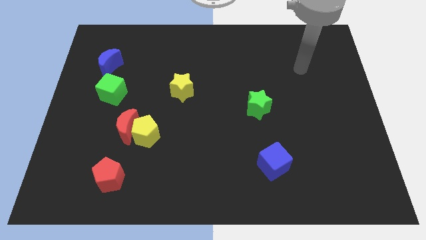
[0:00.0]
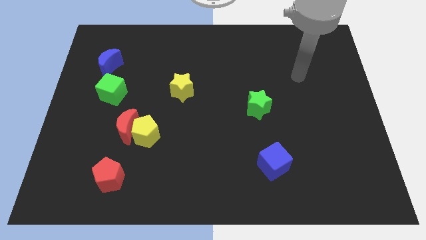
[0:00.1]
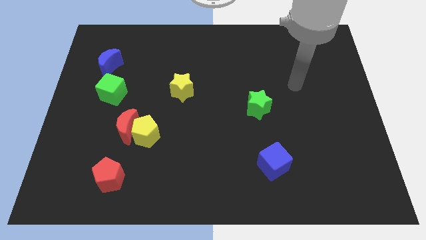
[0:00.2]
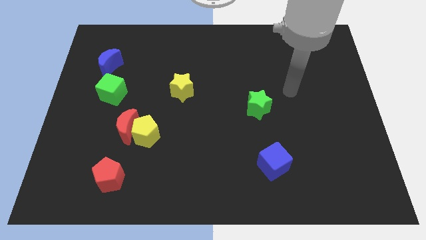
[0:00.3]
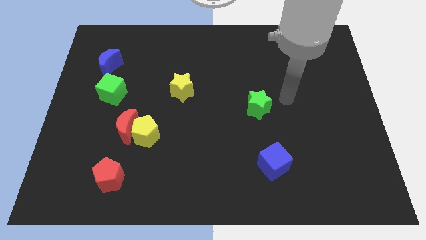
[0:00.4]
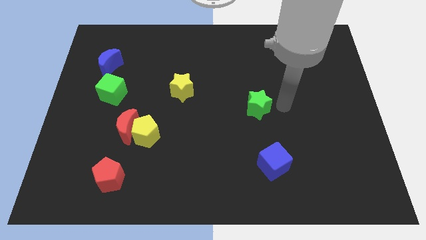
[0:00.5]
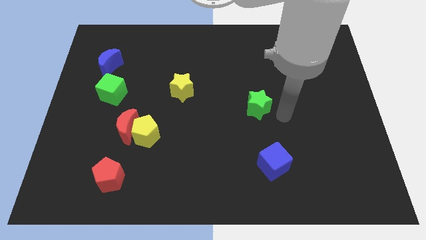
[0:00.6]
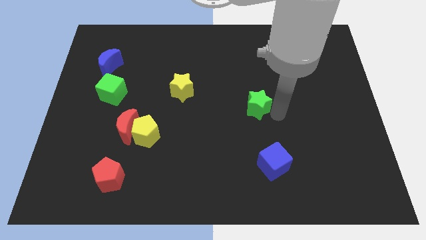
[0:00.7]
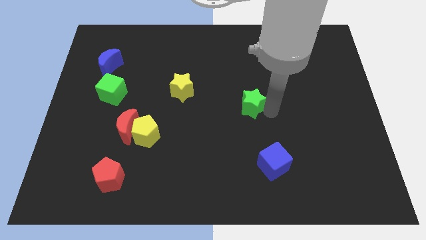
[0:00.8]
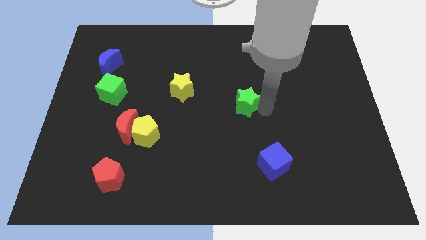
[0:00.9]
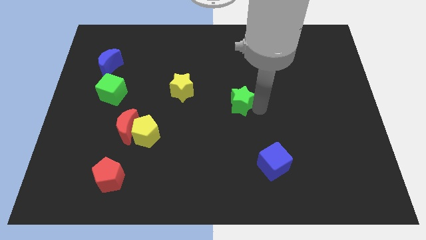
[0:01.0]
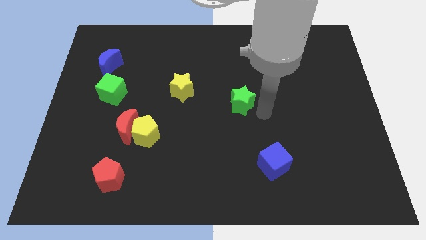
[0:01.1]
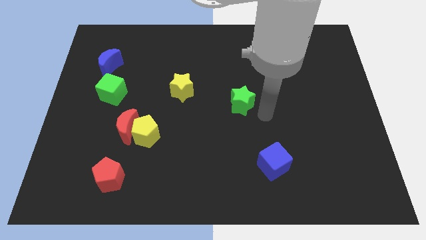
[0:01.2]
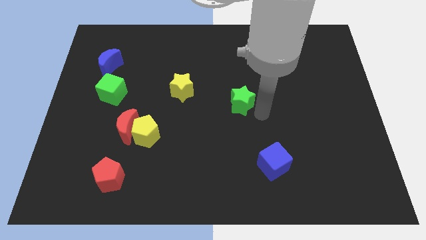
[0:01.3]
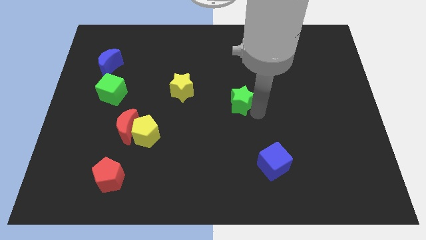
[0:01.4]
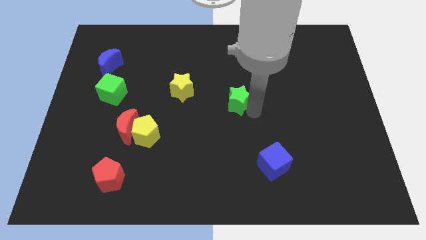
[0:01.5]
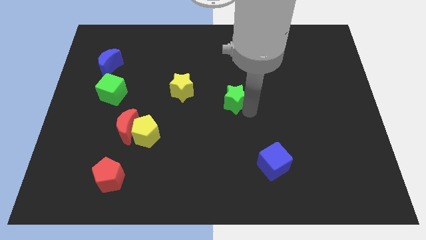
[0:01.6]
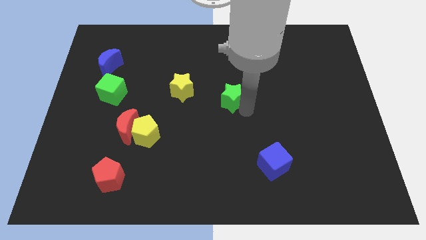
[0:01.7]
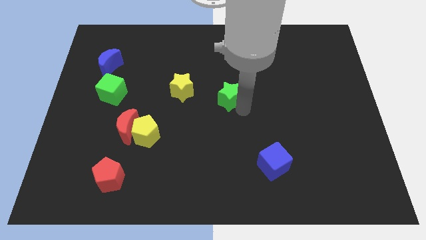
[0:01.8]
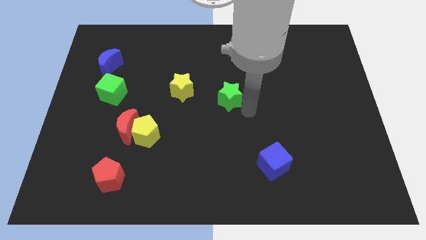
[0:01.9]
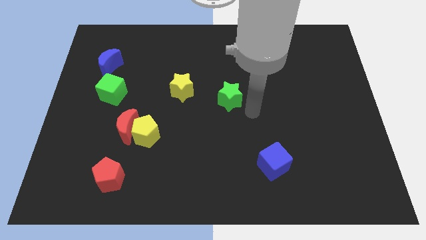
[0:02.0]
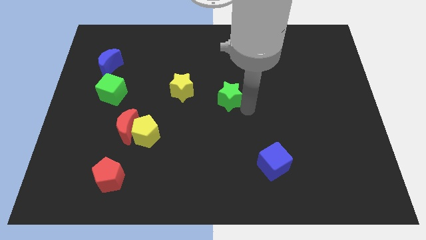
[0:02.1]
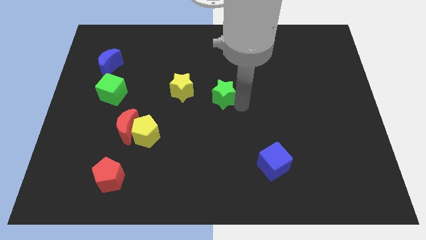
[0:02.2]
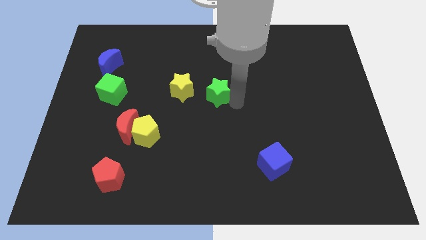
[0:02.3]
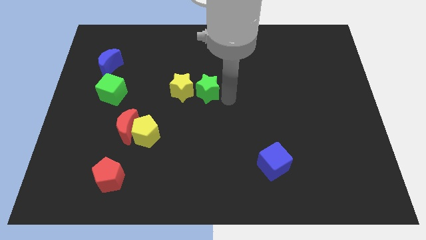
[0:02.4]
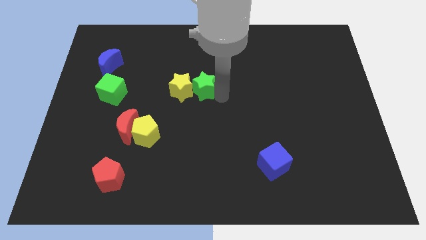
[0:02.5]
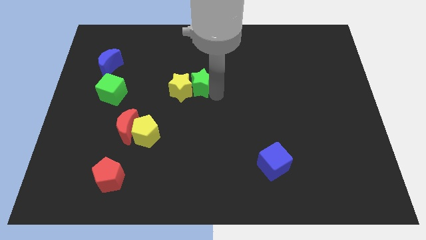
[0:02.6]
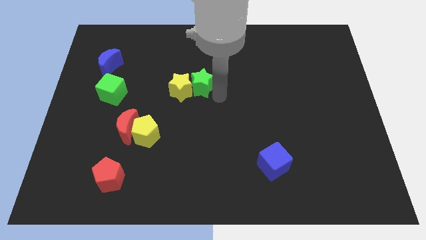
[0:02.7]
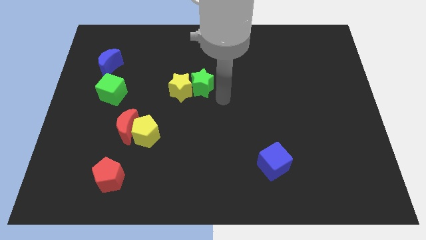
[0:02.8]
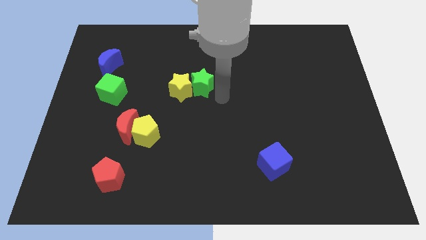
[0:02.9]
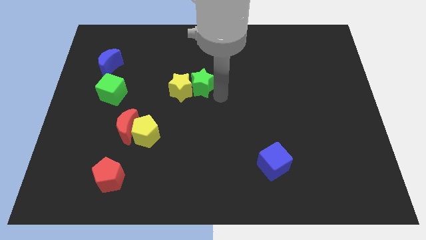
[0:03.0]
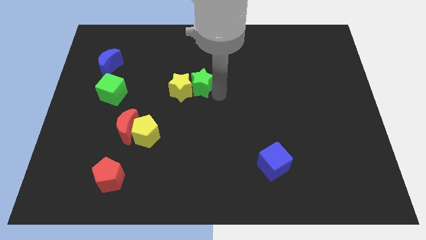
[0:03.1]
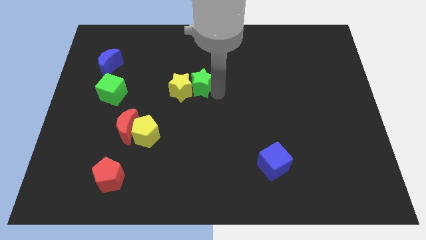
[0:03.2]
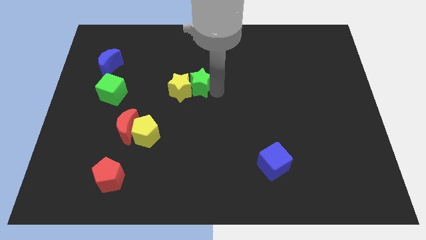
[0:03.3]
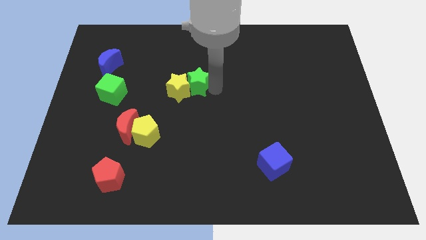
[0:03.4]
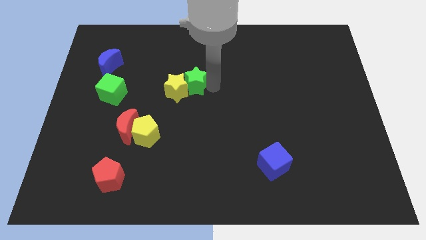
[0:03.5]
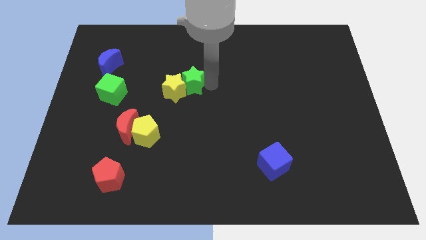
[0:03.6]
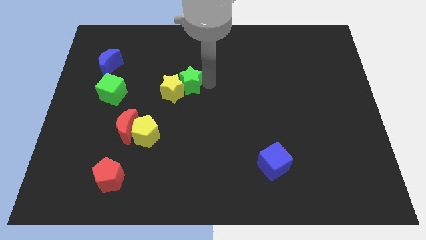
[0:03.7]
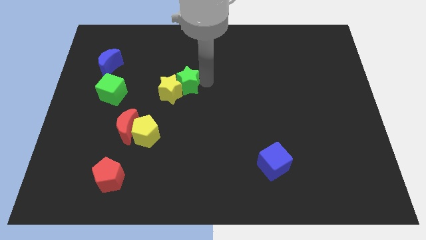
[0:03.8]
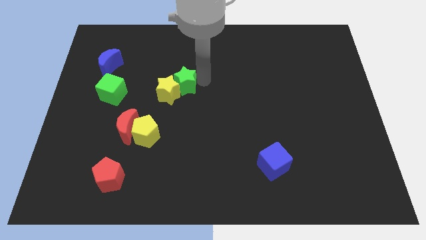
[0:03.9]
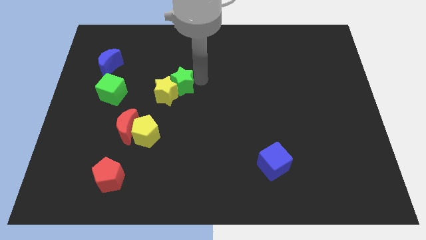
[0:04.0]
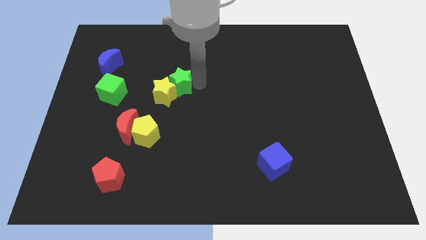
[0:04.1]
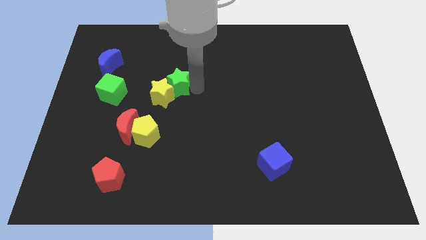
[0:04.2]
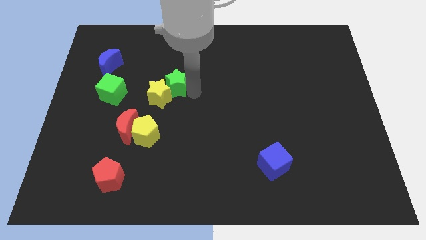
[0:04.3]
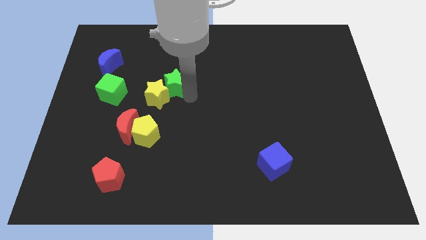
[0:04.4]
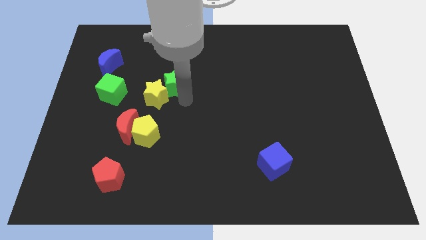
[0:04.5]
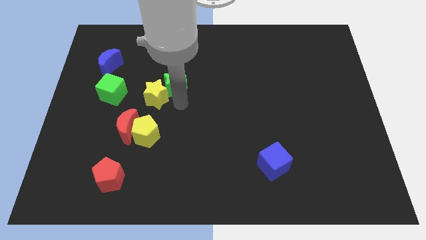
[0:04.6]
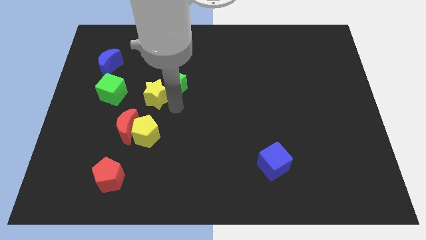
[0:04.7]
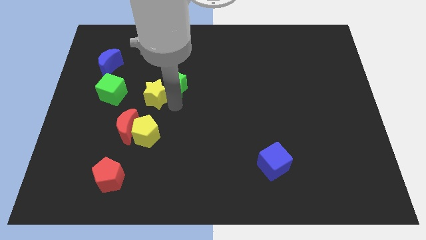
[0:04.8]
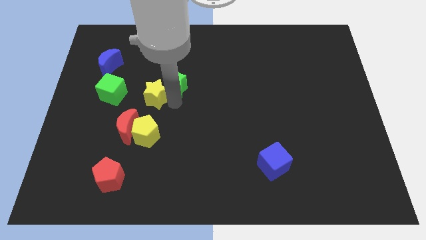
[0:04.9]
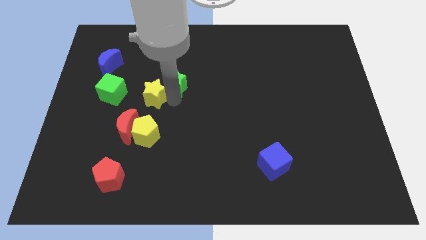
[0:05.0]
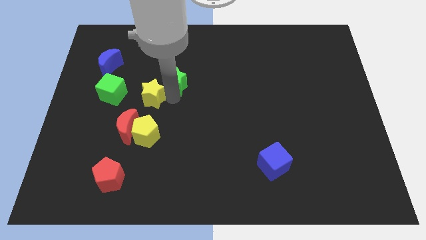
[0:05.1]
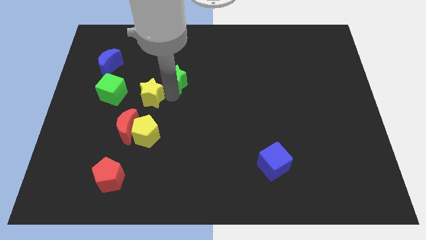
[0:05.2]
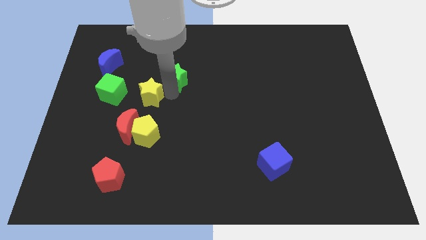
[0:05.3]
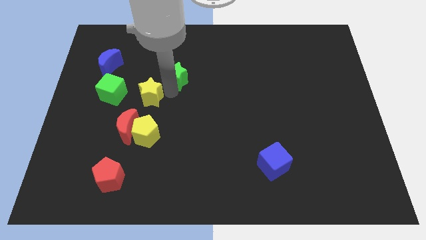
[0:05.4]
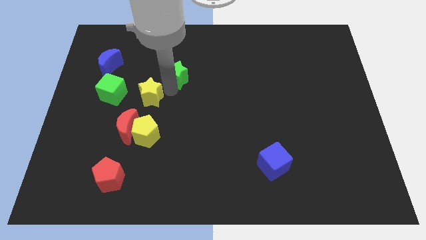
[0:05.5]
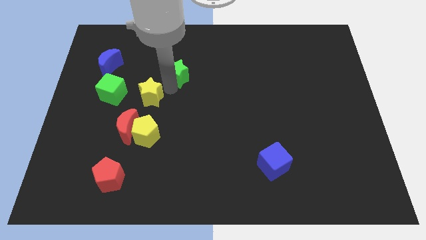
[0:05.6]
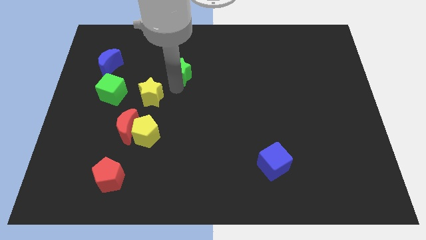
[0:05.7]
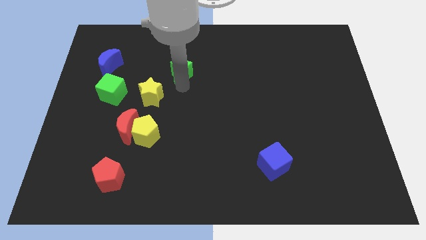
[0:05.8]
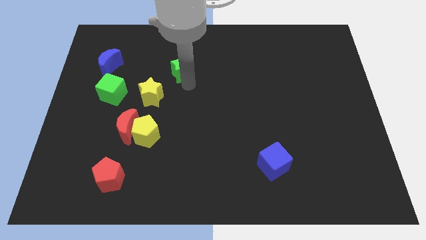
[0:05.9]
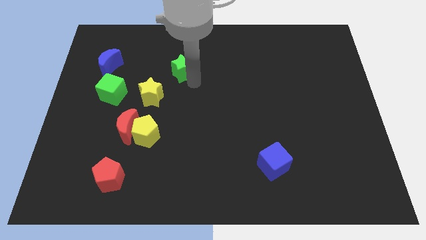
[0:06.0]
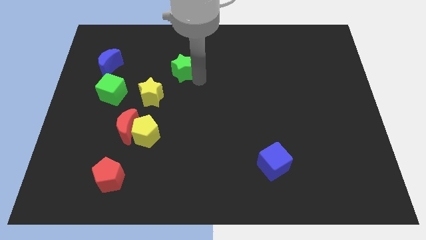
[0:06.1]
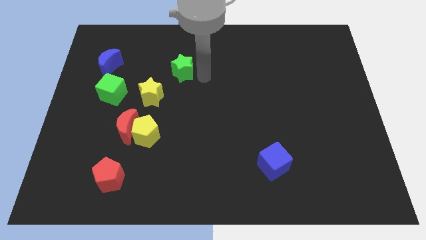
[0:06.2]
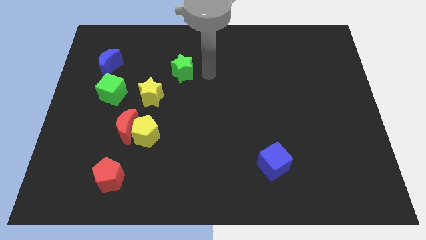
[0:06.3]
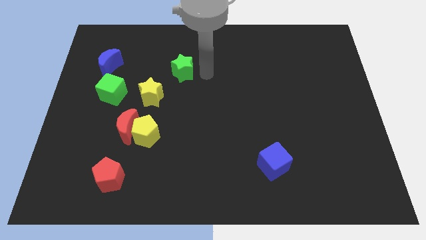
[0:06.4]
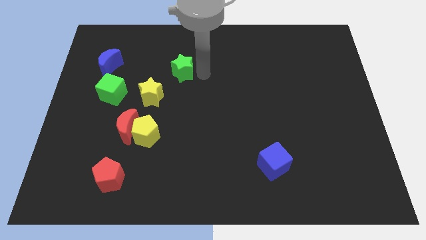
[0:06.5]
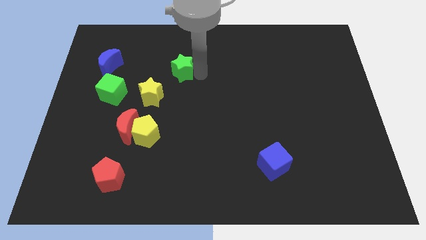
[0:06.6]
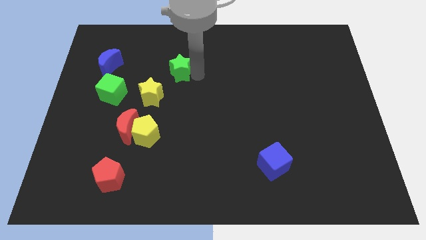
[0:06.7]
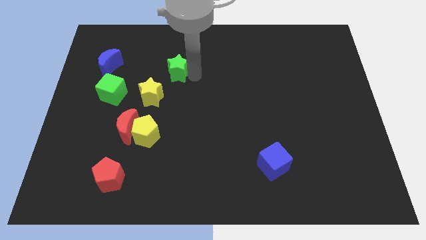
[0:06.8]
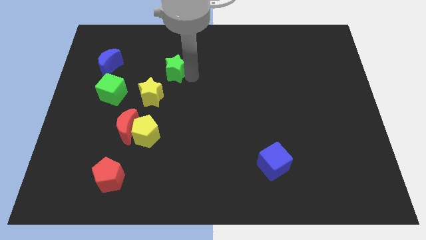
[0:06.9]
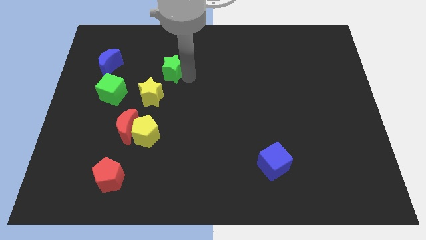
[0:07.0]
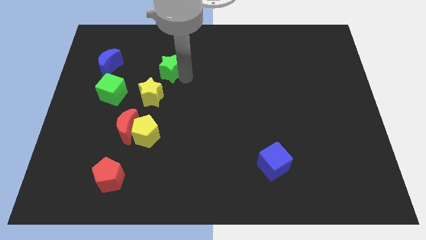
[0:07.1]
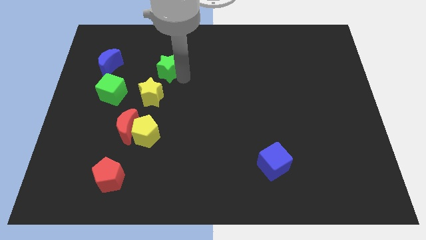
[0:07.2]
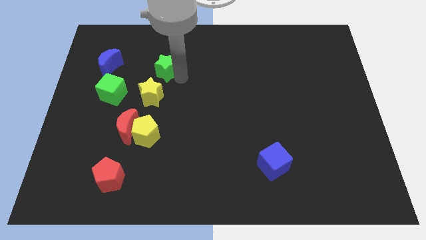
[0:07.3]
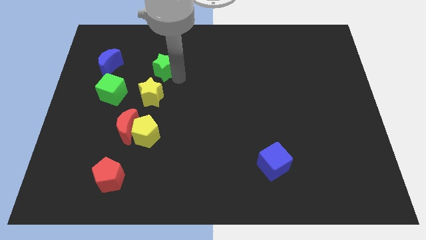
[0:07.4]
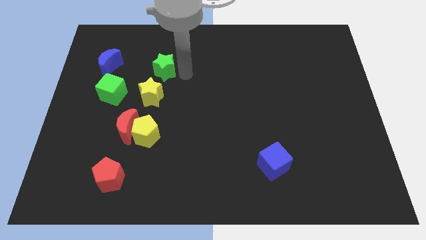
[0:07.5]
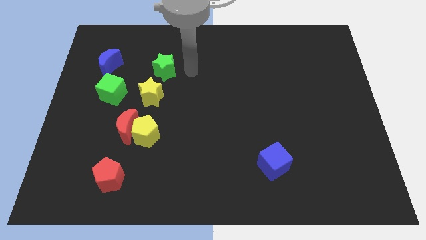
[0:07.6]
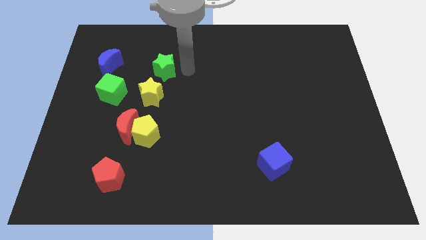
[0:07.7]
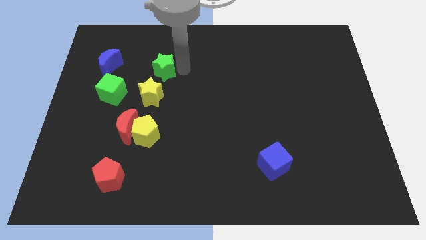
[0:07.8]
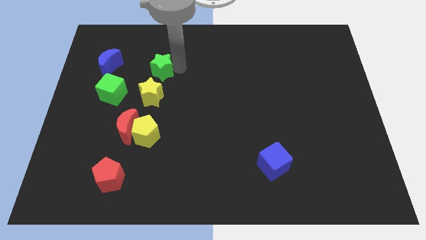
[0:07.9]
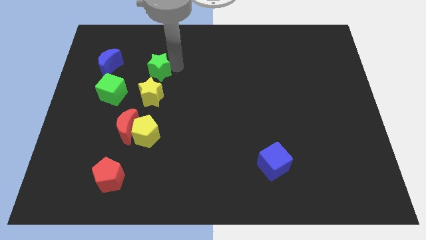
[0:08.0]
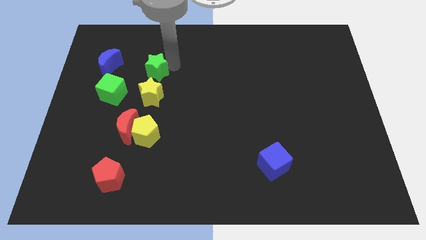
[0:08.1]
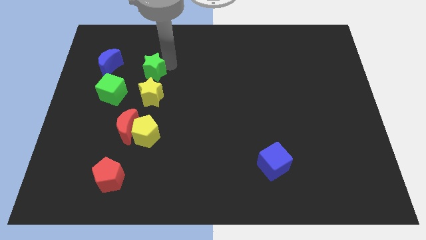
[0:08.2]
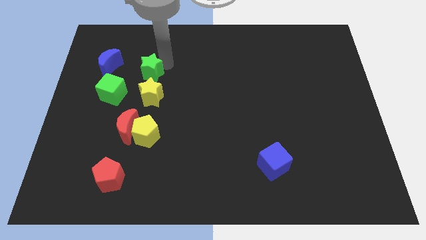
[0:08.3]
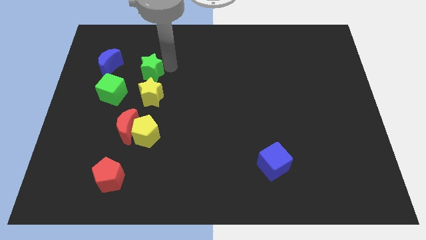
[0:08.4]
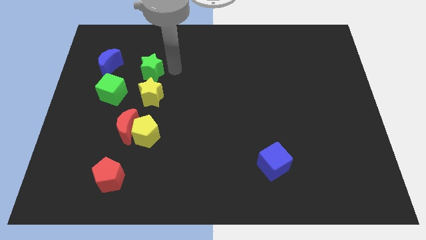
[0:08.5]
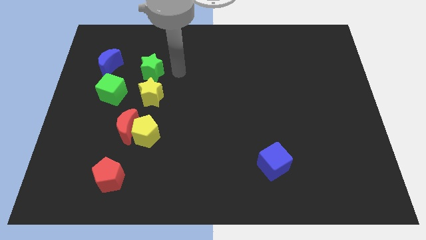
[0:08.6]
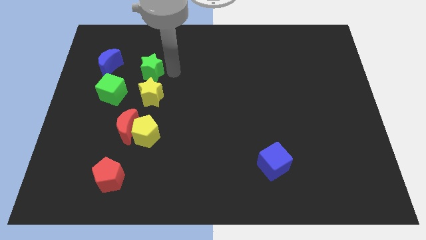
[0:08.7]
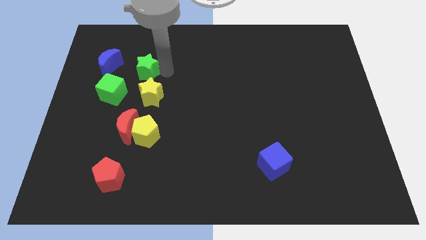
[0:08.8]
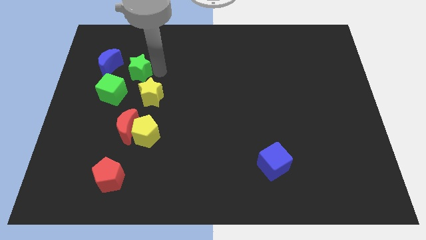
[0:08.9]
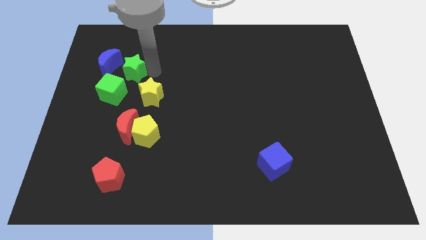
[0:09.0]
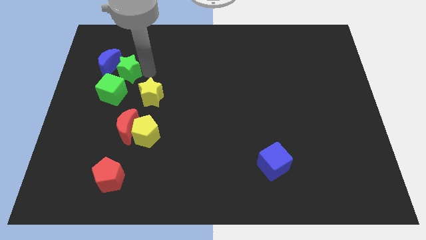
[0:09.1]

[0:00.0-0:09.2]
move the green star to the blue moon
